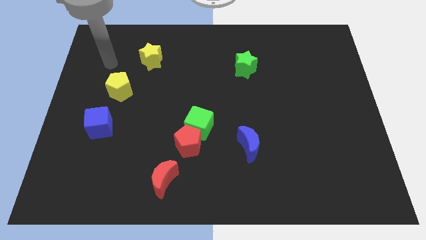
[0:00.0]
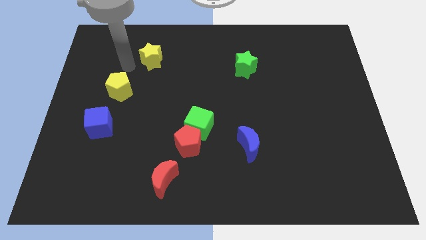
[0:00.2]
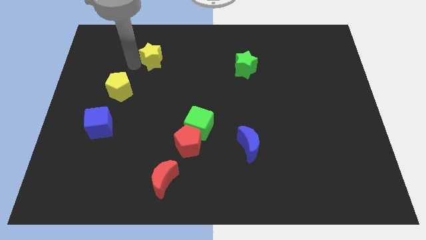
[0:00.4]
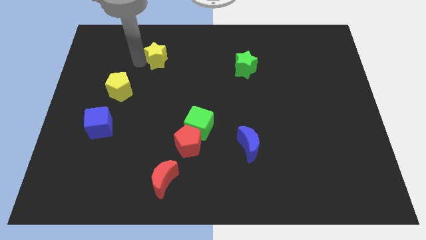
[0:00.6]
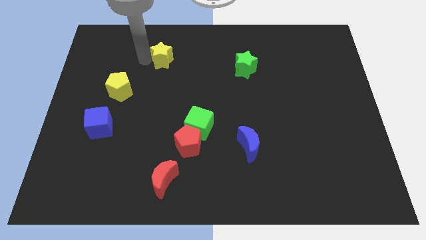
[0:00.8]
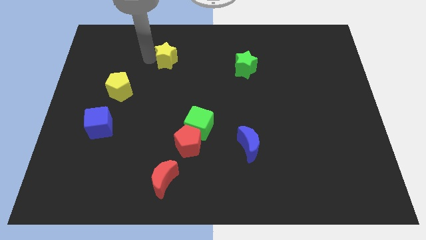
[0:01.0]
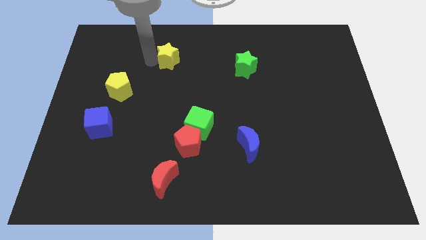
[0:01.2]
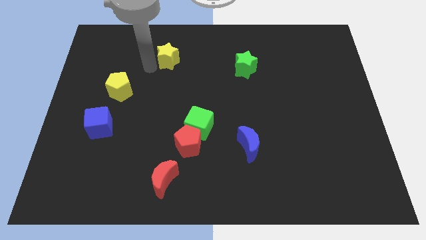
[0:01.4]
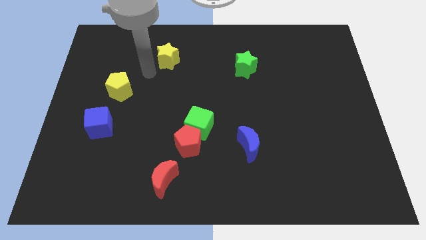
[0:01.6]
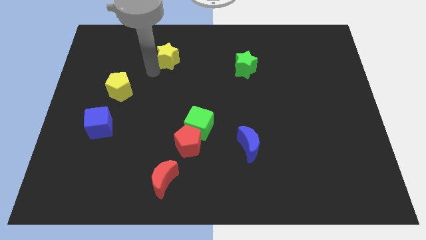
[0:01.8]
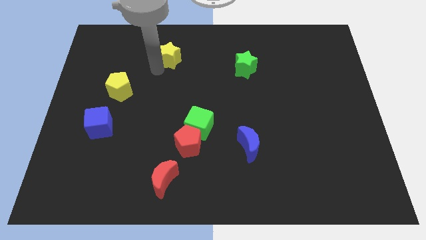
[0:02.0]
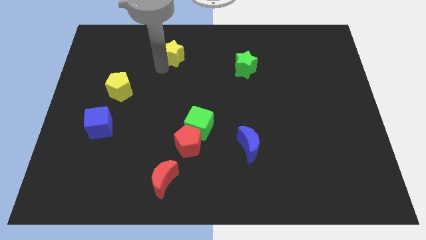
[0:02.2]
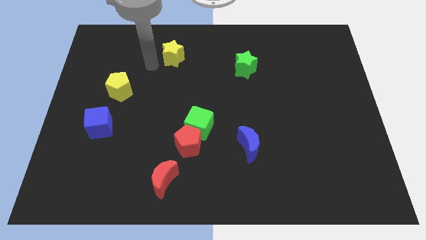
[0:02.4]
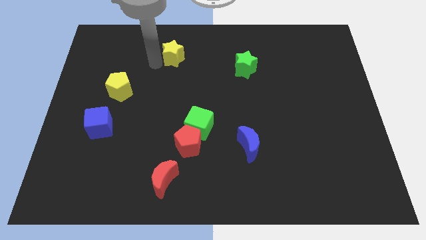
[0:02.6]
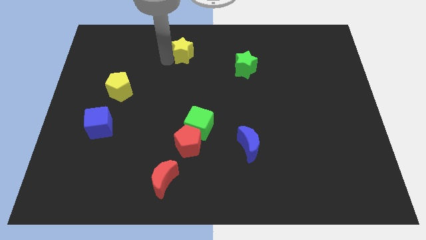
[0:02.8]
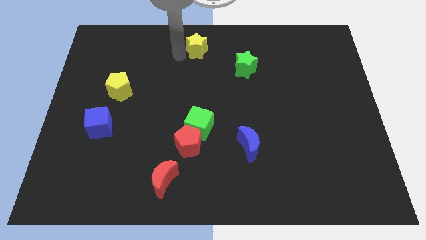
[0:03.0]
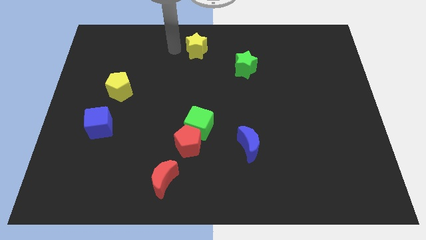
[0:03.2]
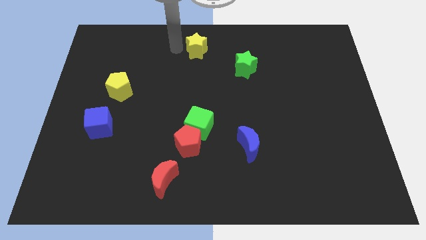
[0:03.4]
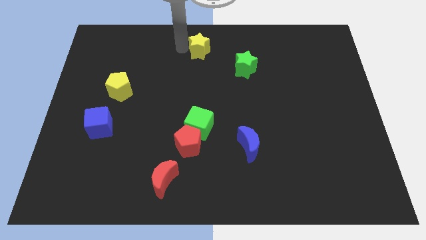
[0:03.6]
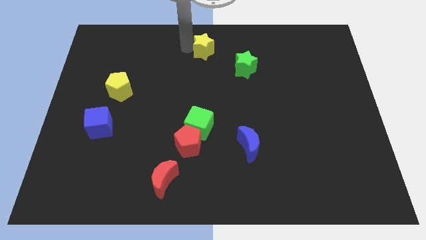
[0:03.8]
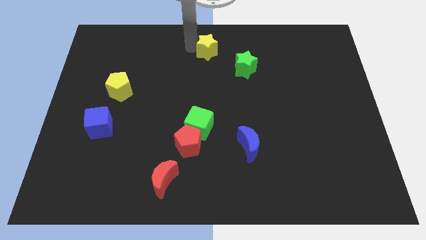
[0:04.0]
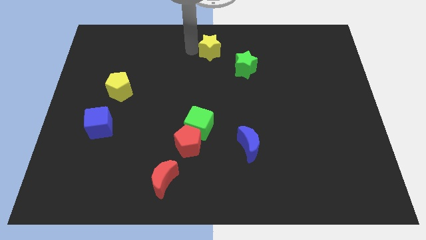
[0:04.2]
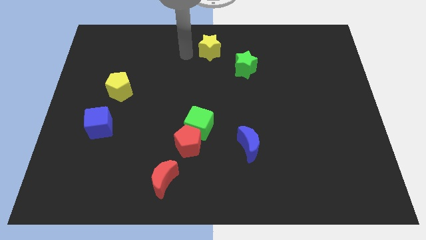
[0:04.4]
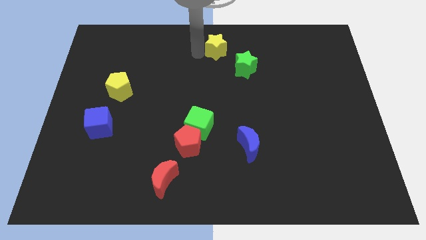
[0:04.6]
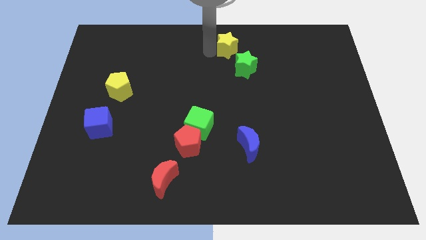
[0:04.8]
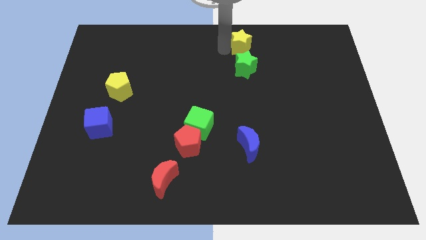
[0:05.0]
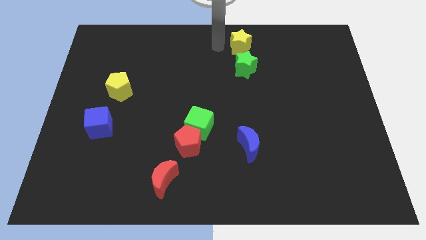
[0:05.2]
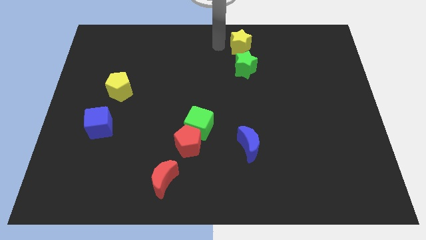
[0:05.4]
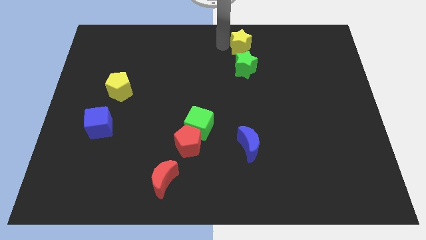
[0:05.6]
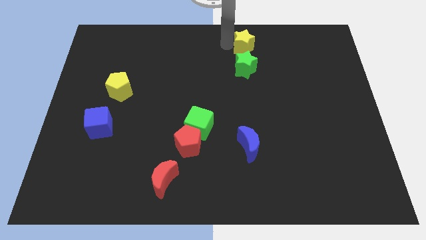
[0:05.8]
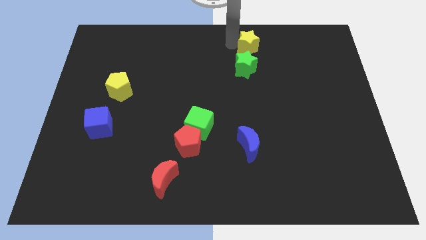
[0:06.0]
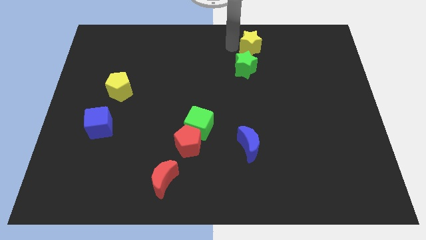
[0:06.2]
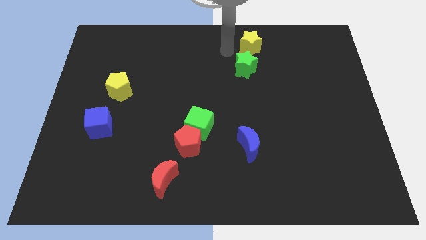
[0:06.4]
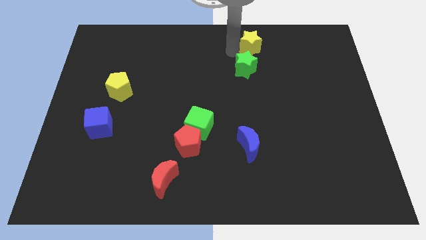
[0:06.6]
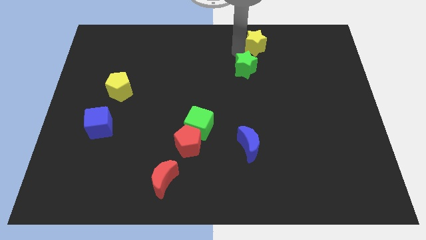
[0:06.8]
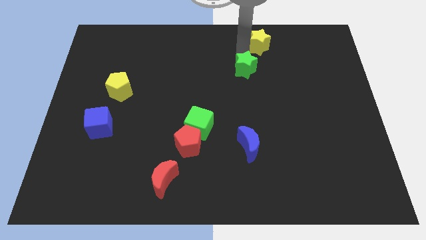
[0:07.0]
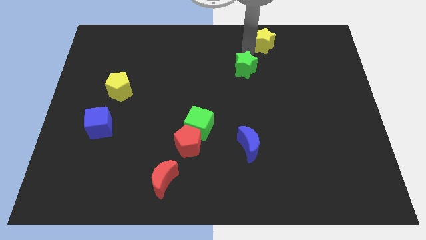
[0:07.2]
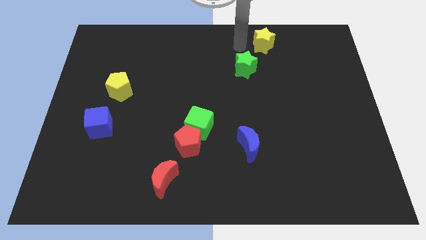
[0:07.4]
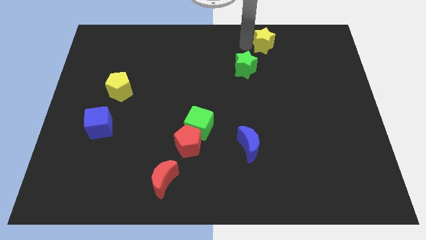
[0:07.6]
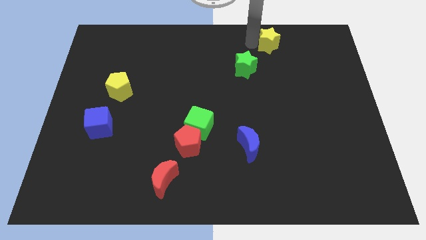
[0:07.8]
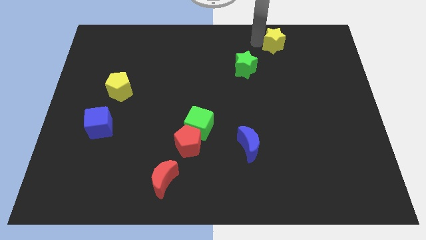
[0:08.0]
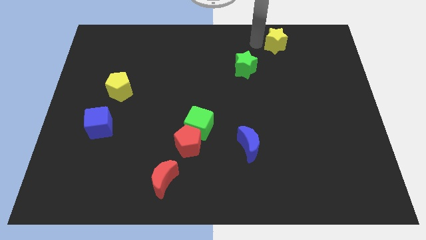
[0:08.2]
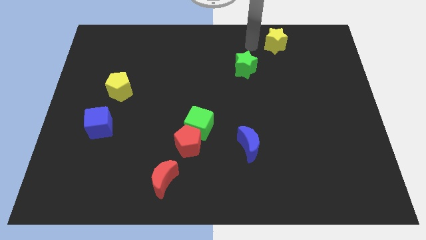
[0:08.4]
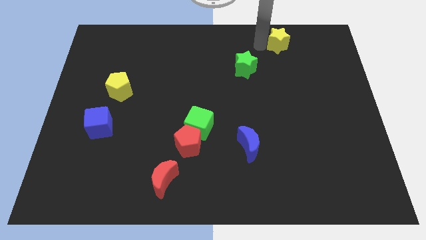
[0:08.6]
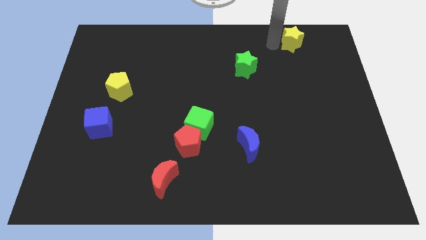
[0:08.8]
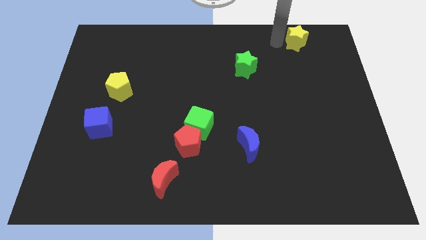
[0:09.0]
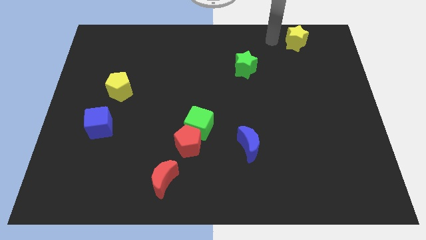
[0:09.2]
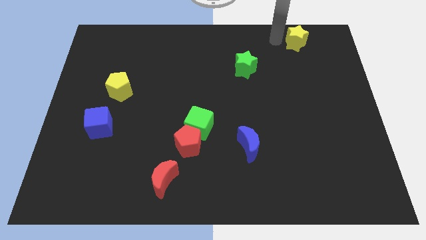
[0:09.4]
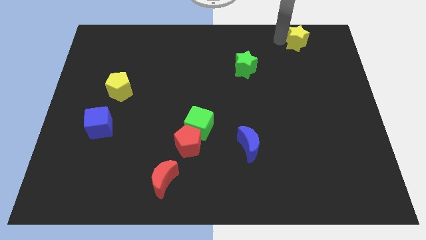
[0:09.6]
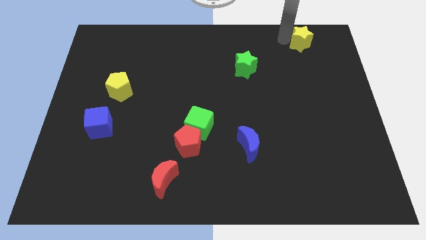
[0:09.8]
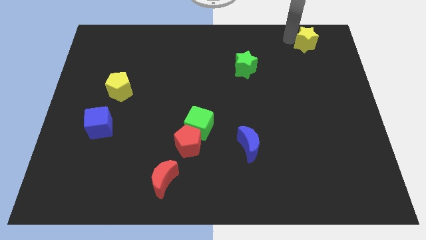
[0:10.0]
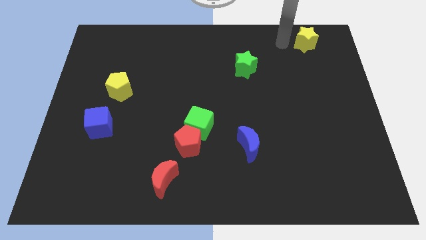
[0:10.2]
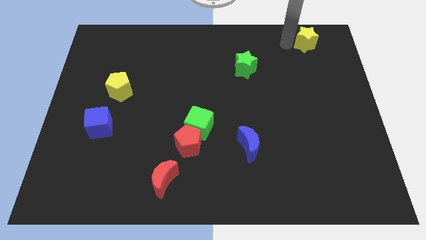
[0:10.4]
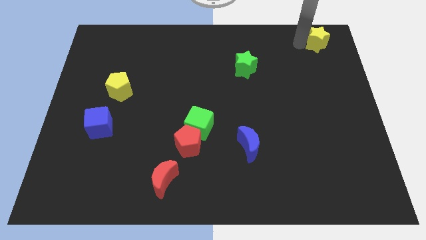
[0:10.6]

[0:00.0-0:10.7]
push the yellow star to the top right corner
